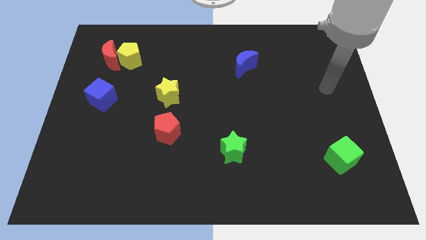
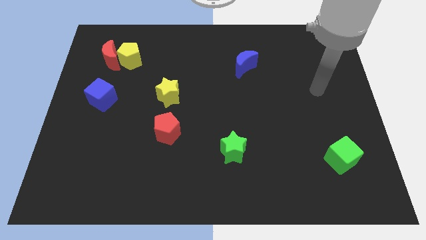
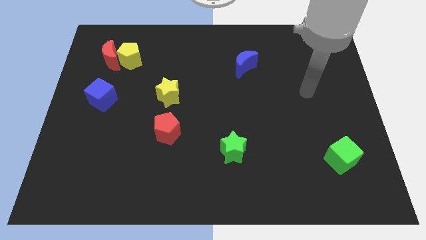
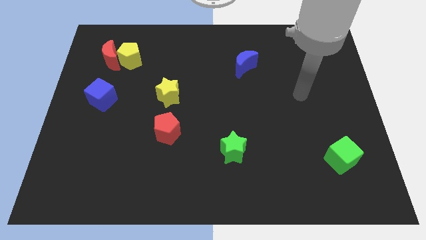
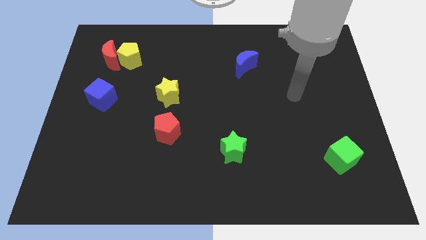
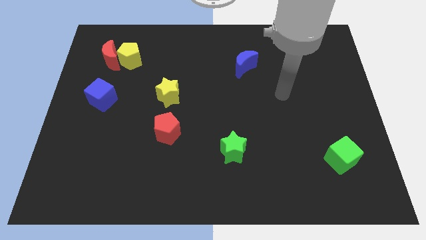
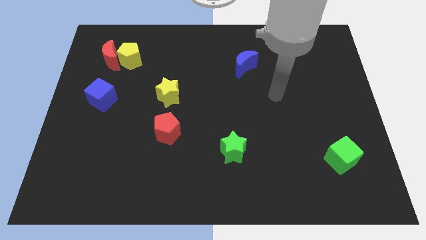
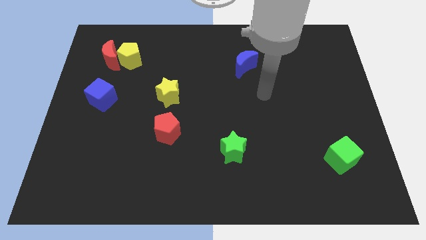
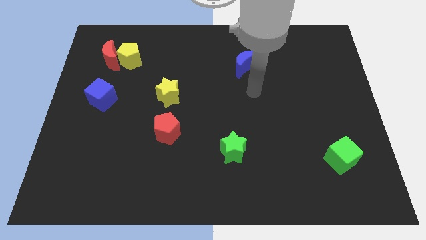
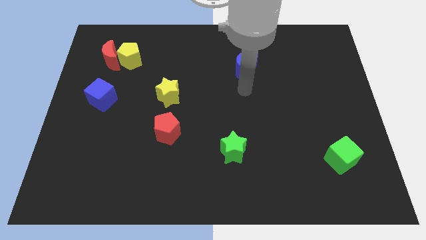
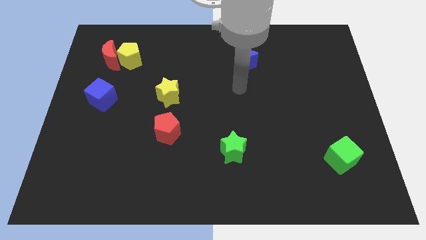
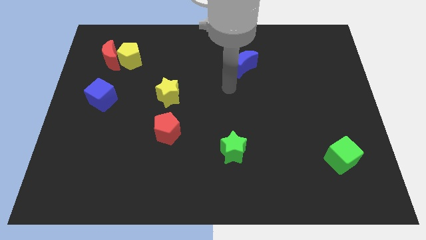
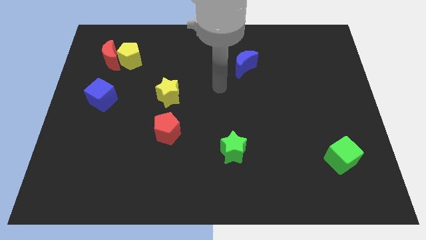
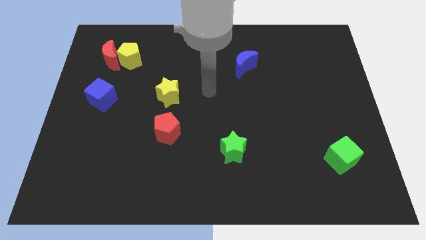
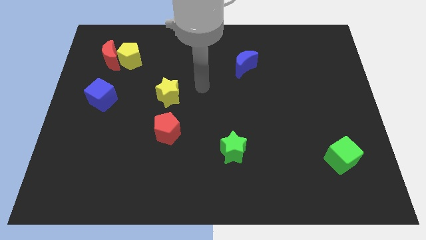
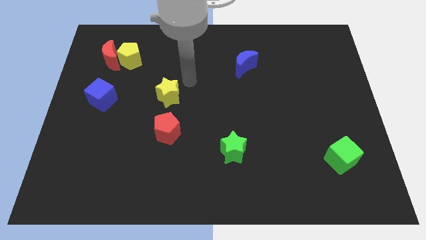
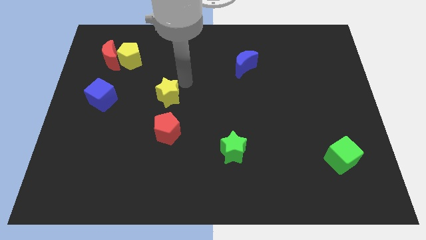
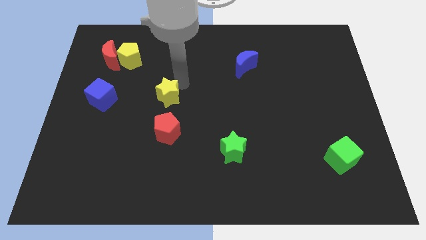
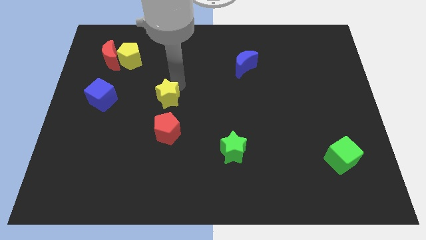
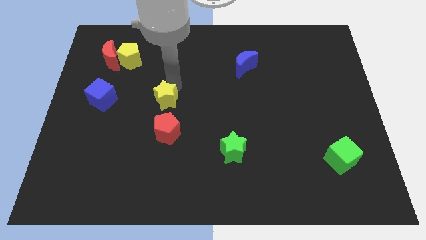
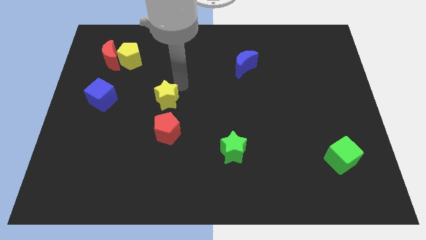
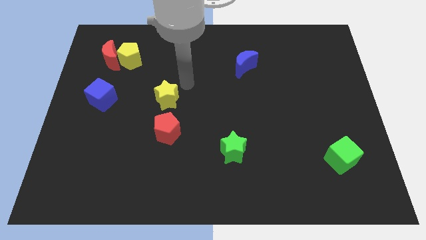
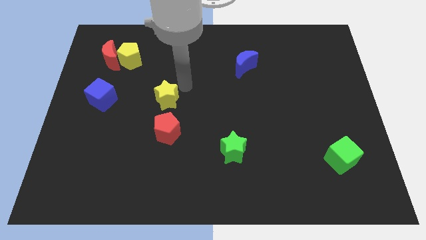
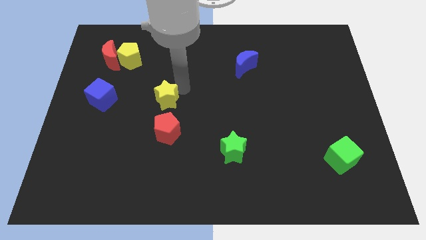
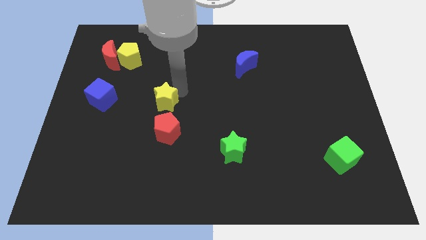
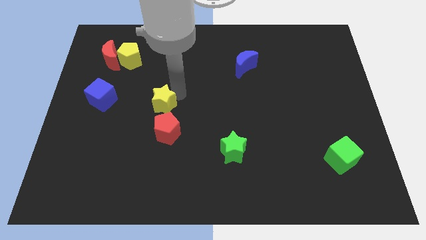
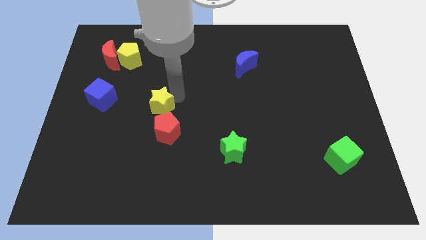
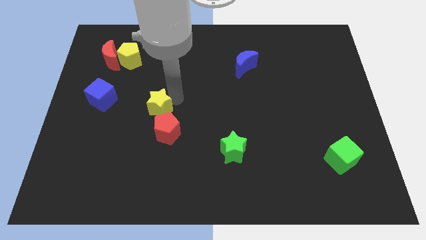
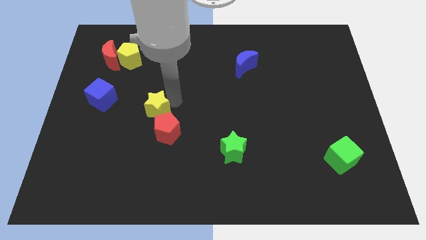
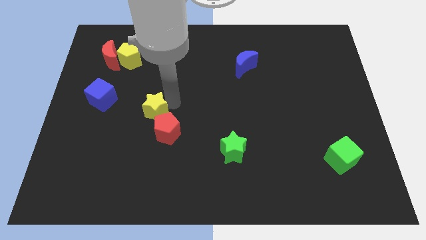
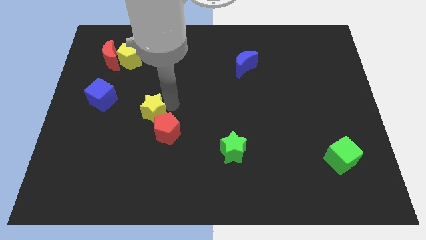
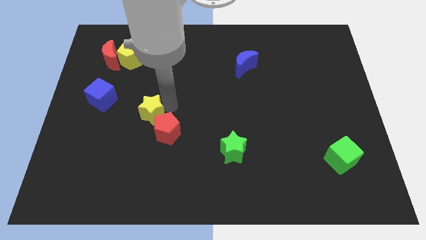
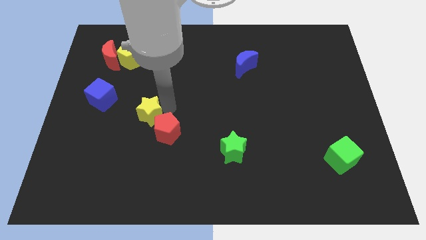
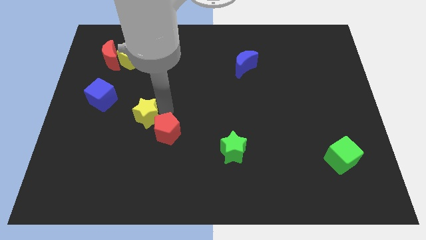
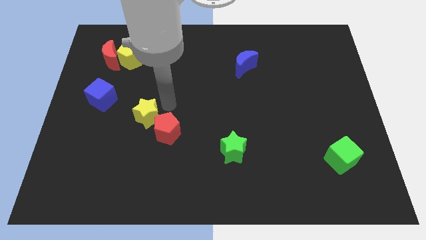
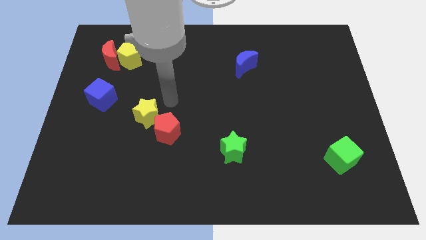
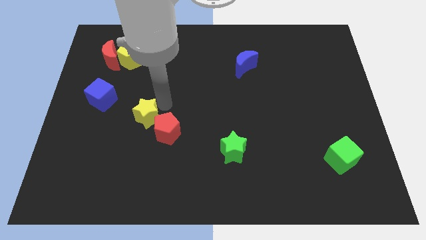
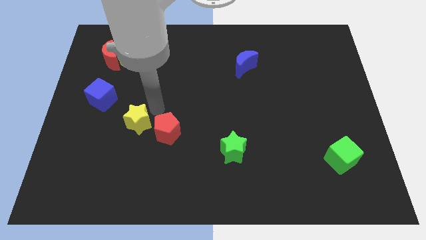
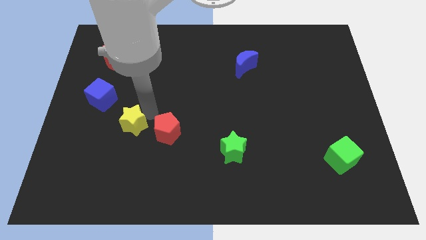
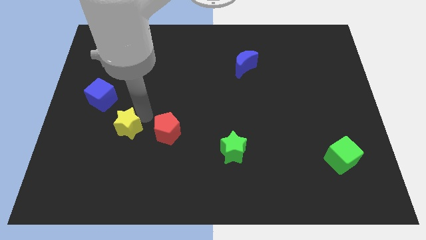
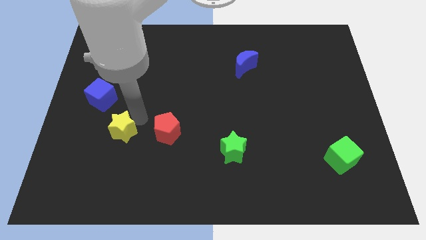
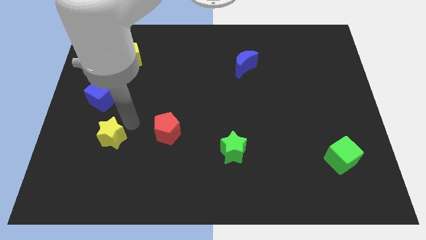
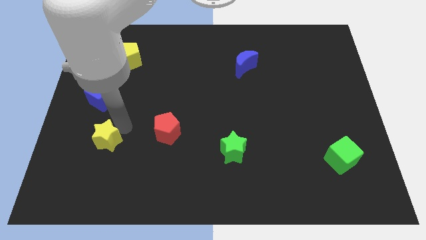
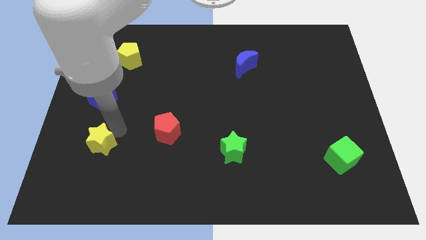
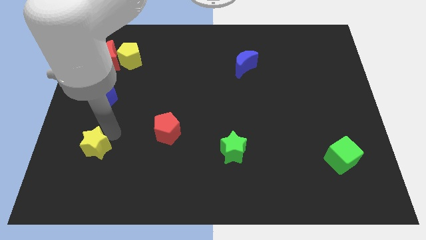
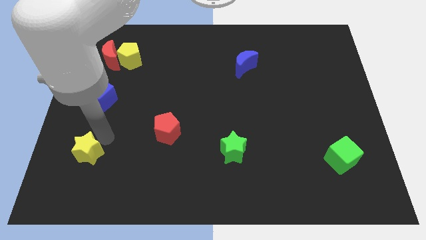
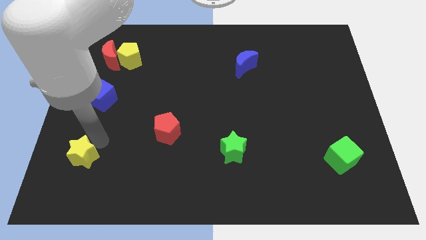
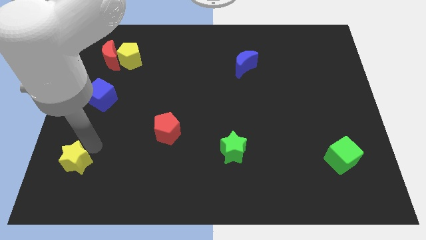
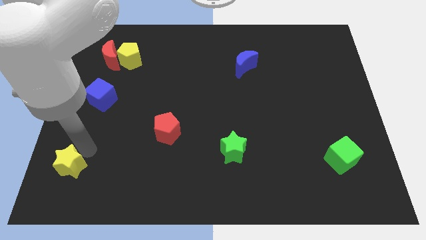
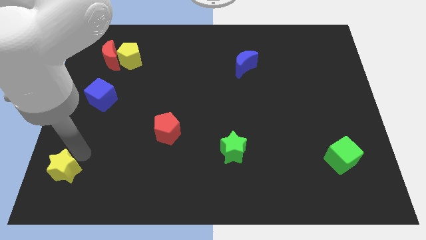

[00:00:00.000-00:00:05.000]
move the yellow star to the bottom left of the board

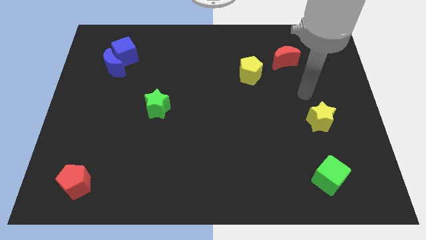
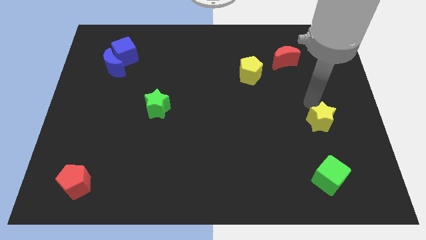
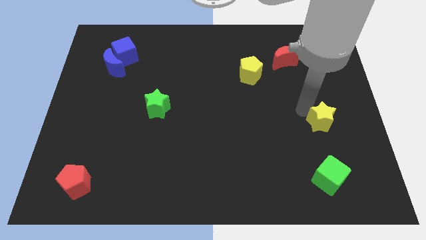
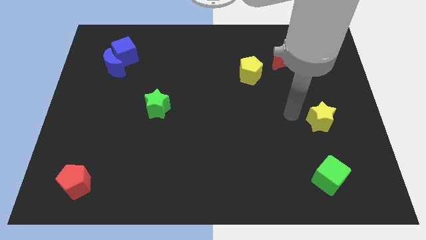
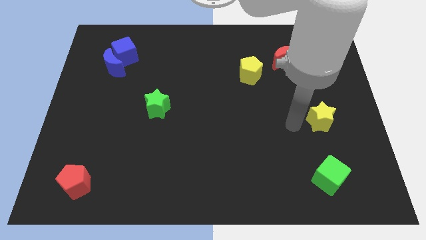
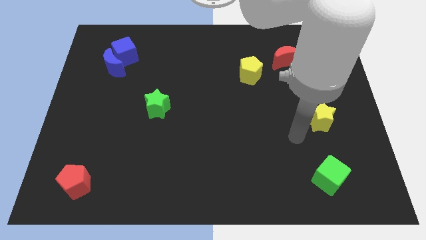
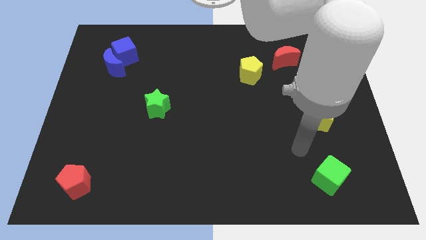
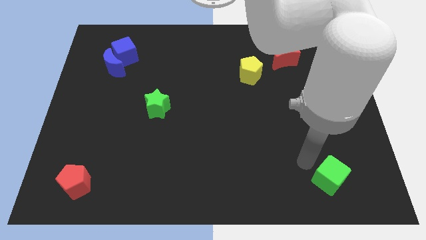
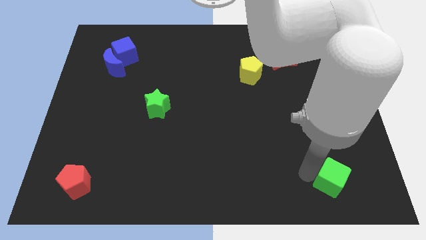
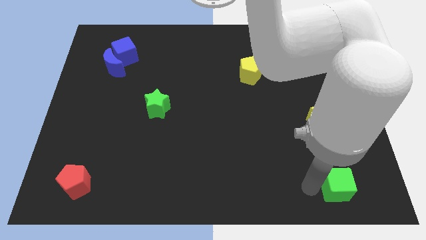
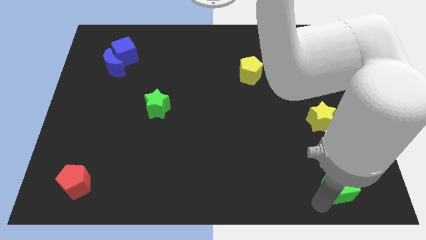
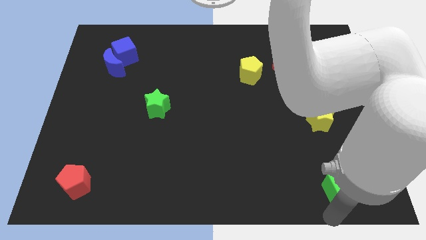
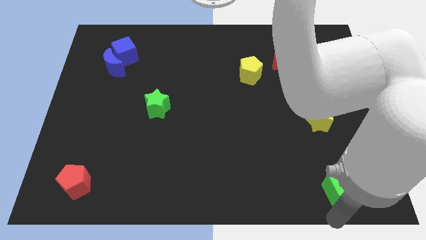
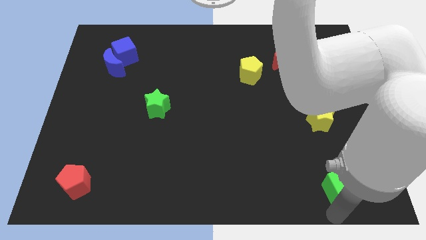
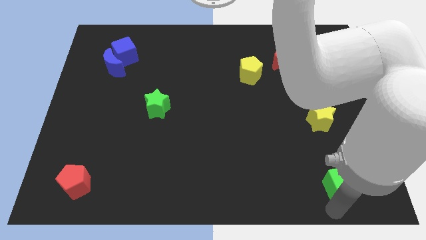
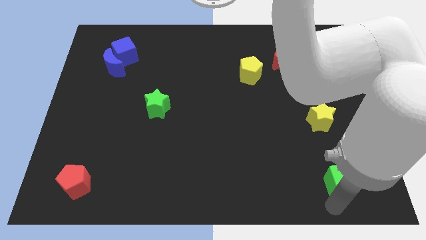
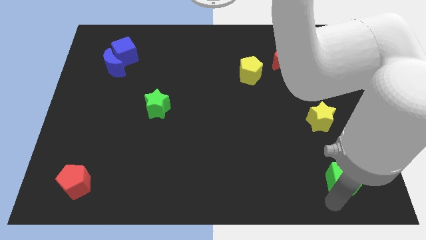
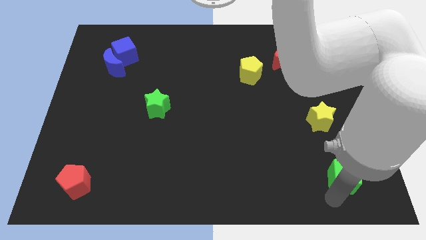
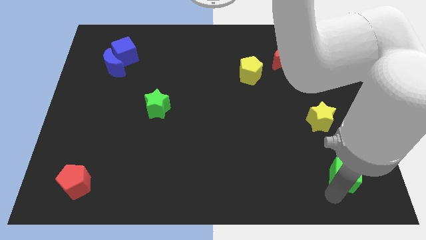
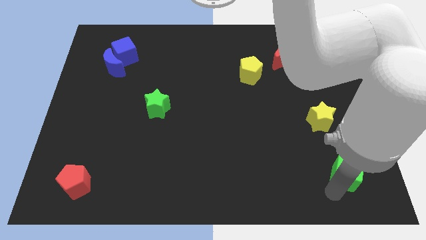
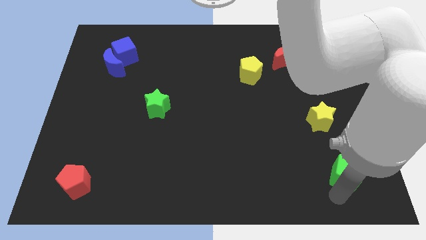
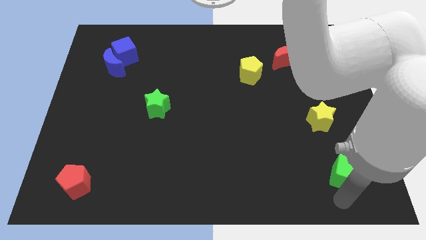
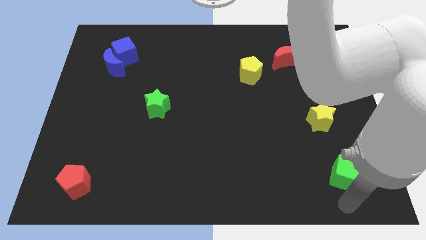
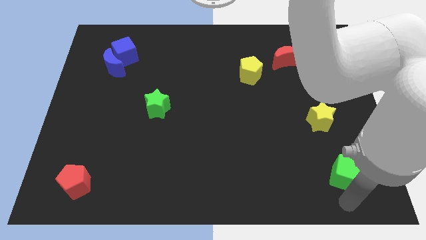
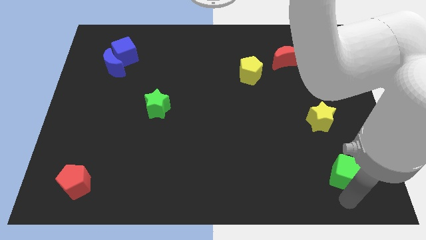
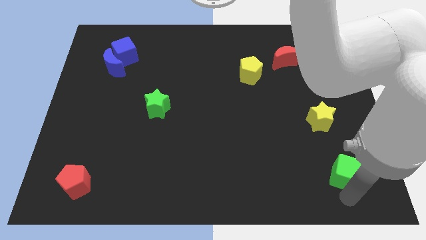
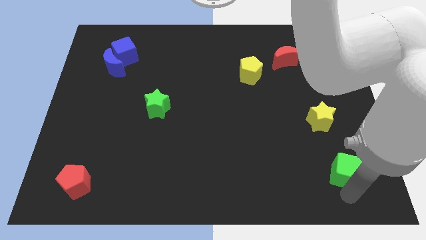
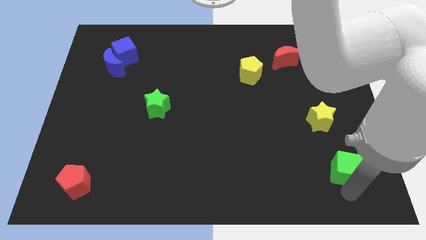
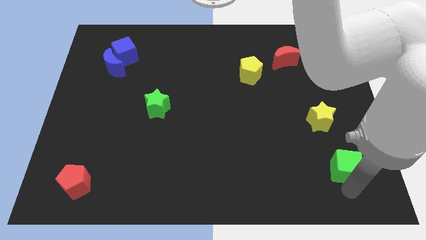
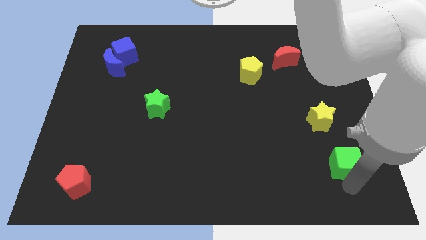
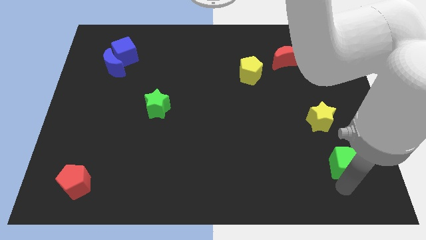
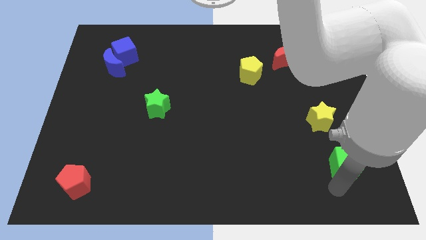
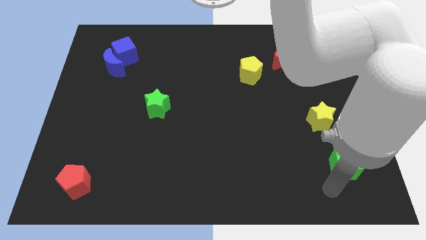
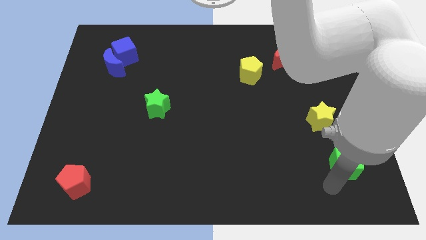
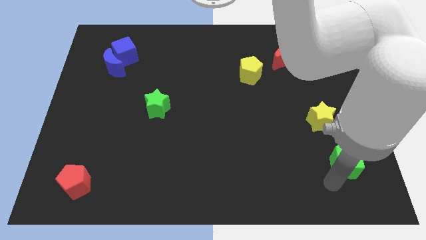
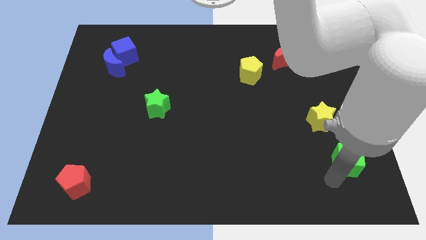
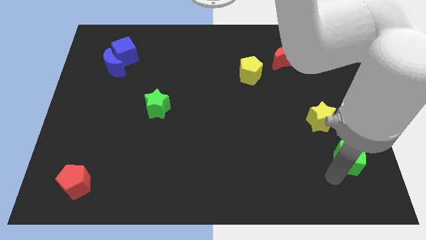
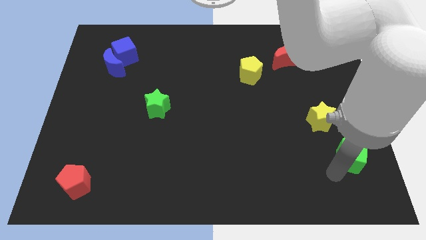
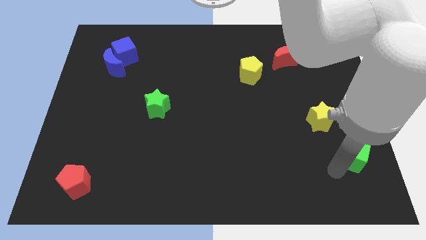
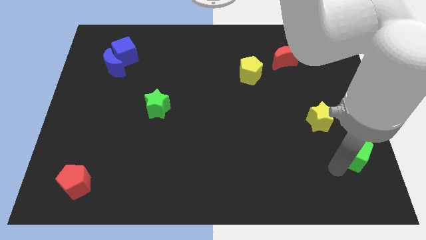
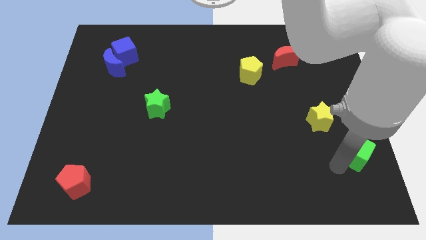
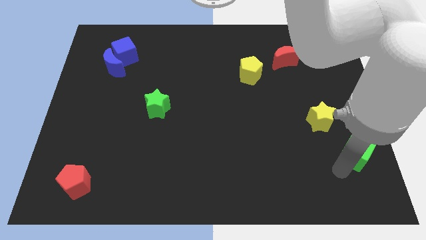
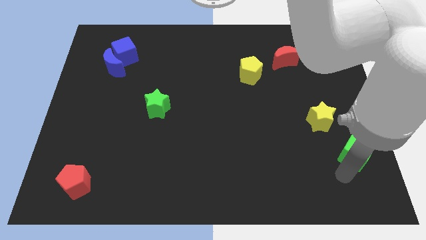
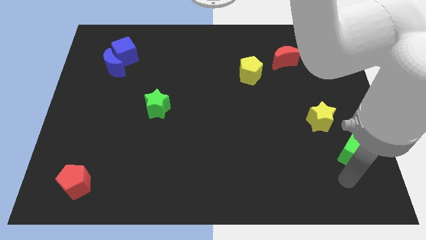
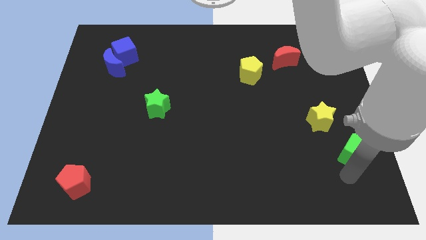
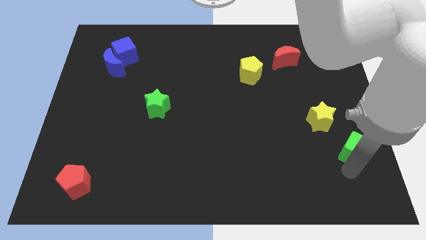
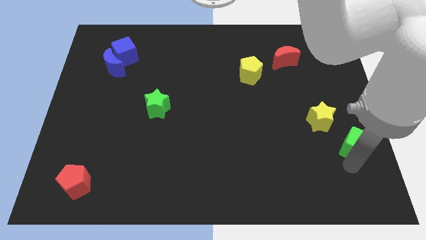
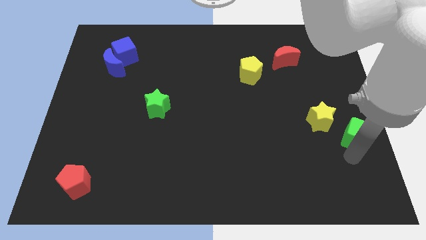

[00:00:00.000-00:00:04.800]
slide the green cube to the right side
